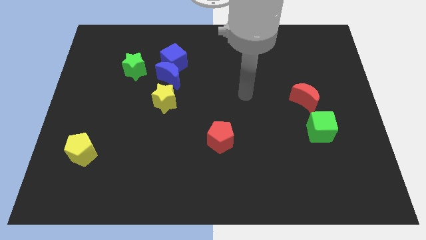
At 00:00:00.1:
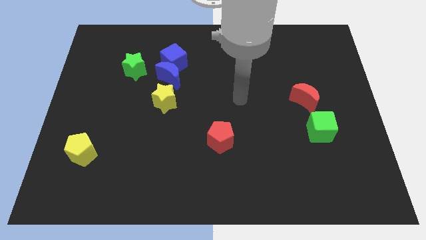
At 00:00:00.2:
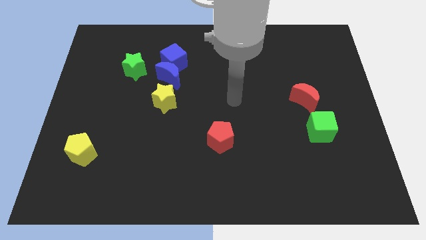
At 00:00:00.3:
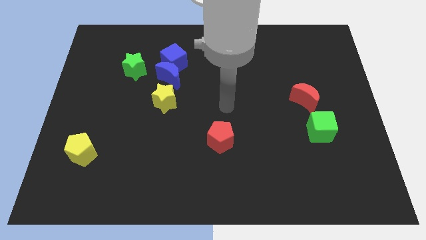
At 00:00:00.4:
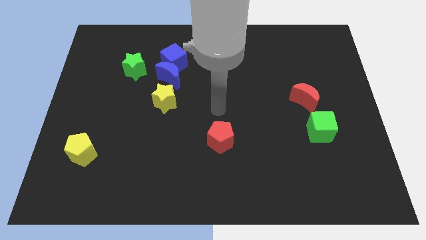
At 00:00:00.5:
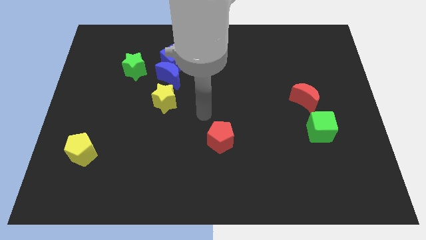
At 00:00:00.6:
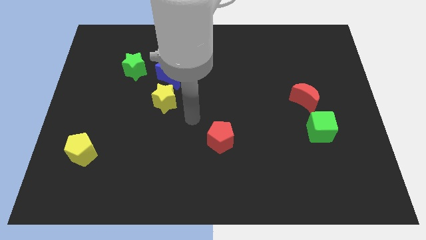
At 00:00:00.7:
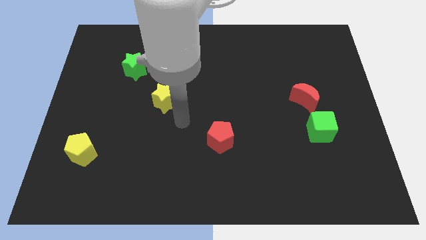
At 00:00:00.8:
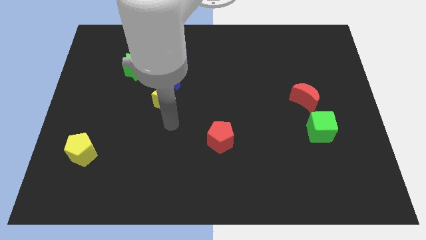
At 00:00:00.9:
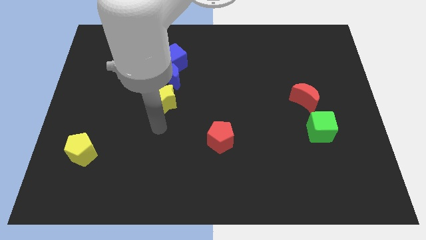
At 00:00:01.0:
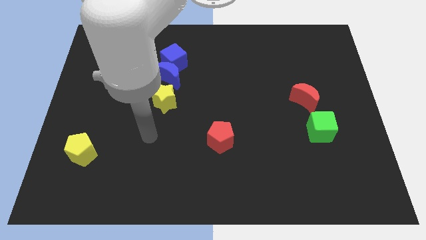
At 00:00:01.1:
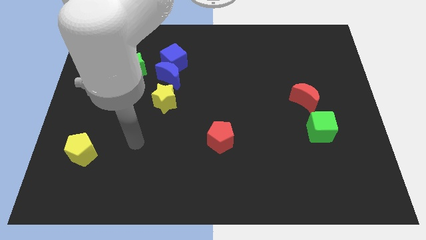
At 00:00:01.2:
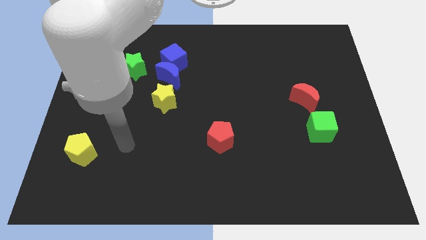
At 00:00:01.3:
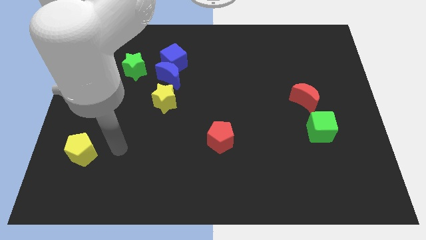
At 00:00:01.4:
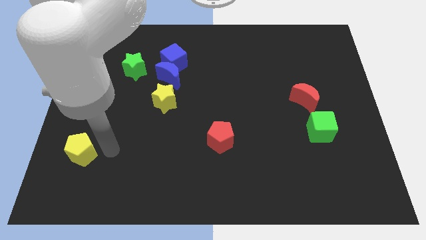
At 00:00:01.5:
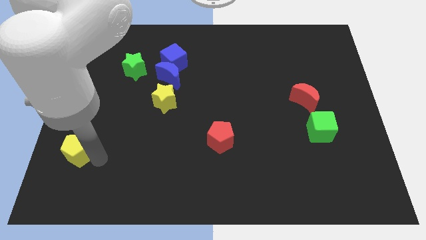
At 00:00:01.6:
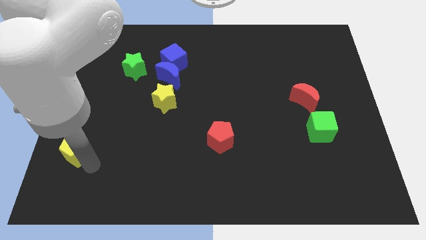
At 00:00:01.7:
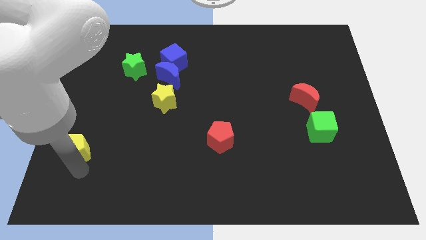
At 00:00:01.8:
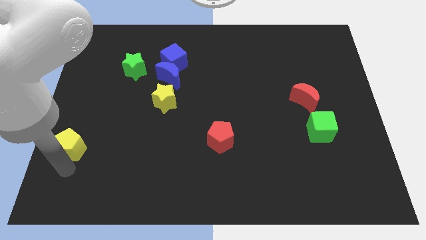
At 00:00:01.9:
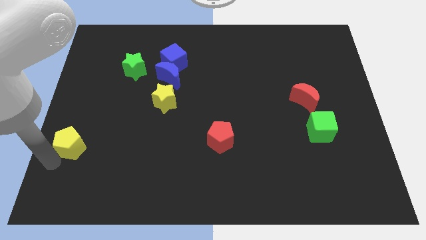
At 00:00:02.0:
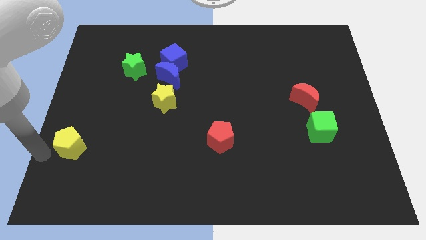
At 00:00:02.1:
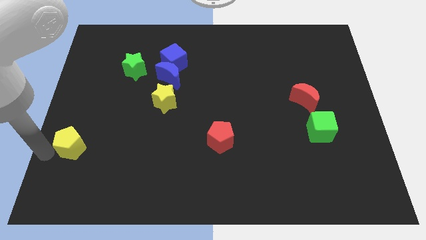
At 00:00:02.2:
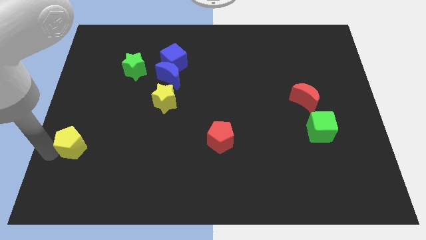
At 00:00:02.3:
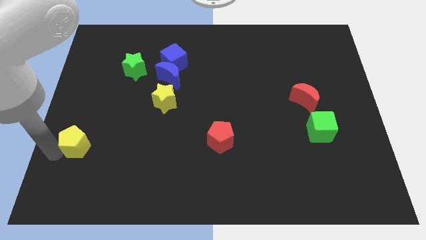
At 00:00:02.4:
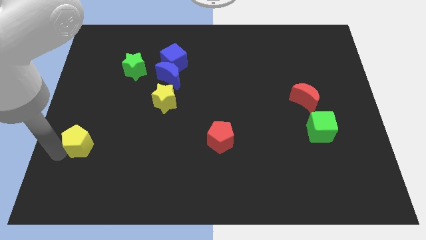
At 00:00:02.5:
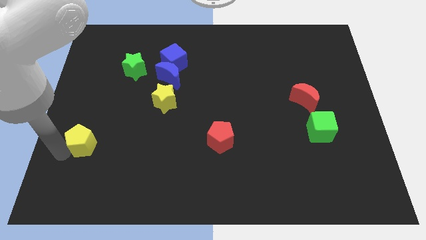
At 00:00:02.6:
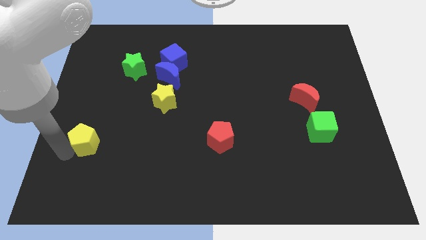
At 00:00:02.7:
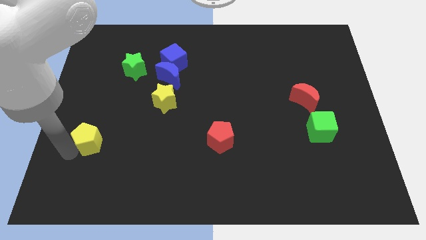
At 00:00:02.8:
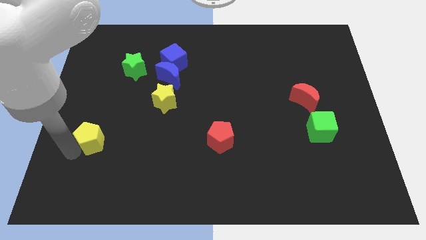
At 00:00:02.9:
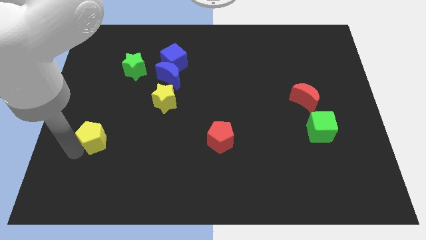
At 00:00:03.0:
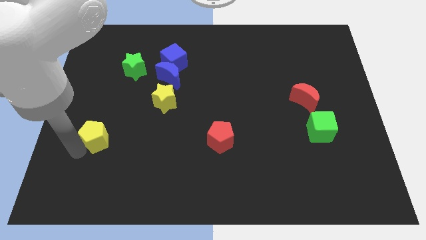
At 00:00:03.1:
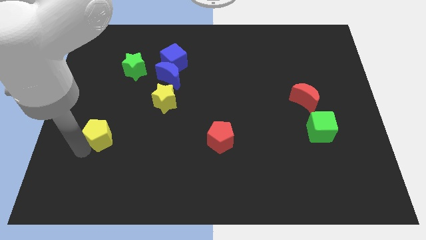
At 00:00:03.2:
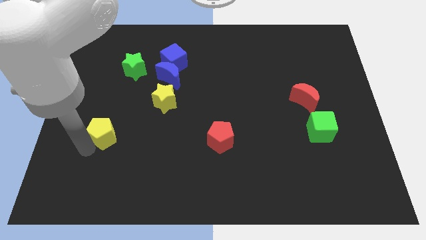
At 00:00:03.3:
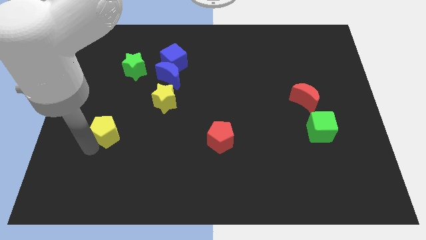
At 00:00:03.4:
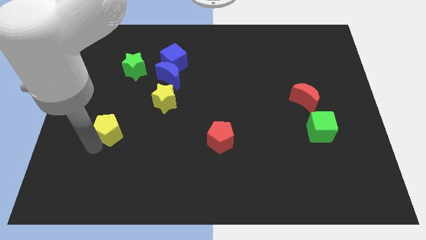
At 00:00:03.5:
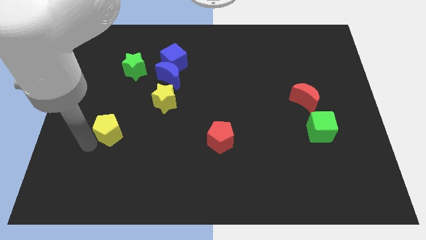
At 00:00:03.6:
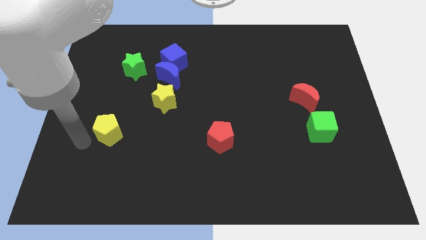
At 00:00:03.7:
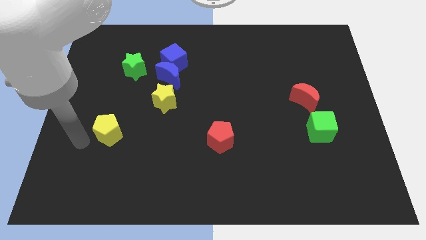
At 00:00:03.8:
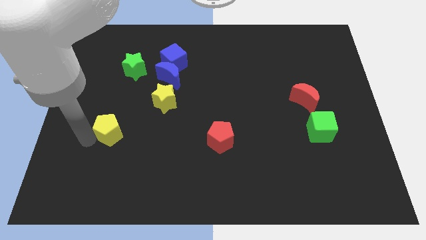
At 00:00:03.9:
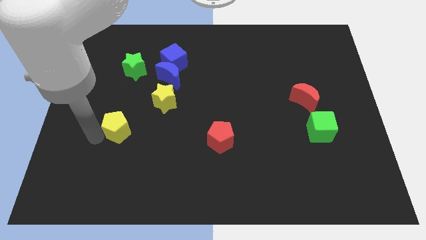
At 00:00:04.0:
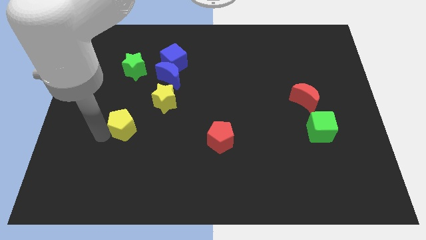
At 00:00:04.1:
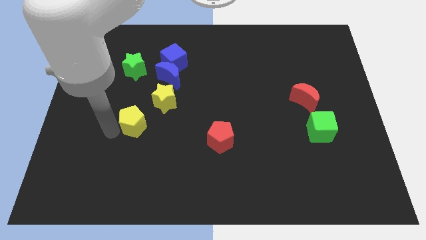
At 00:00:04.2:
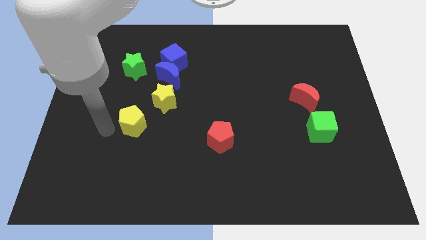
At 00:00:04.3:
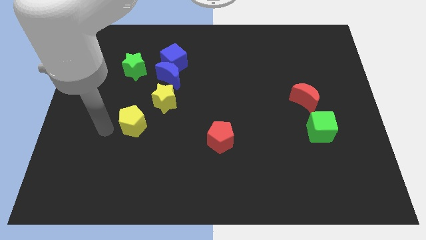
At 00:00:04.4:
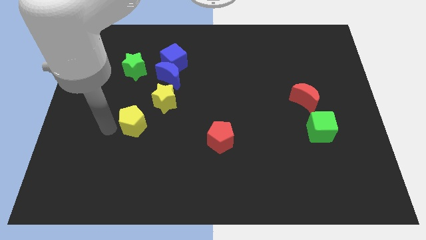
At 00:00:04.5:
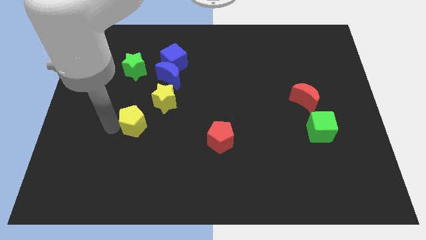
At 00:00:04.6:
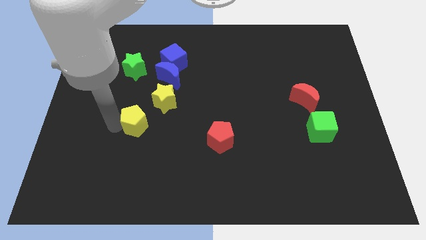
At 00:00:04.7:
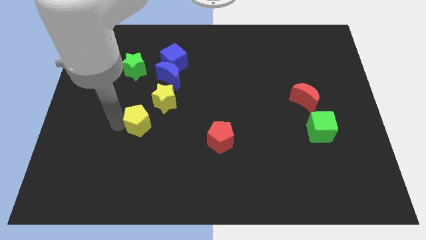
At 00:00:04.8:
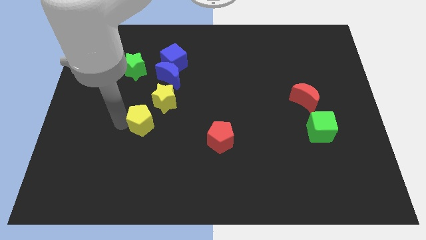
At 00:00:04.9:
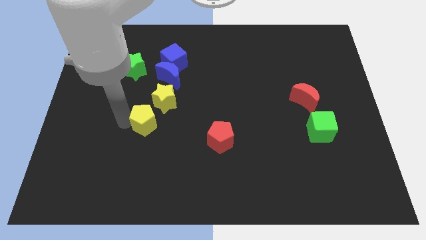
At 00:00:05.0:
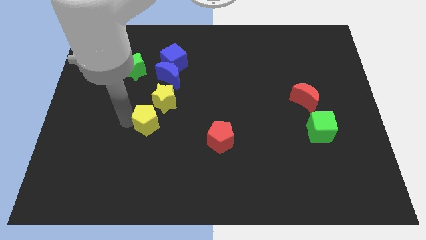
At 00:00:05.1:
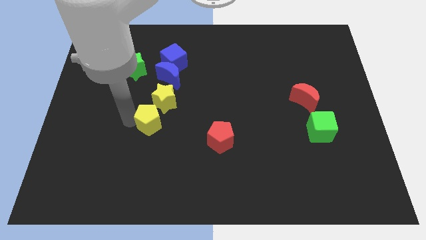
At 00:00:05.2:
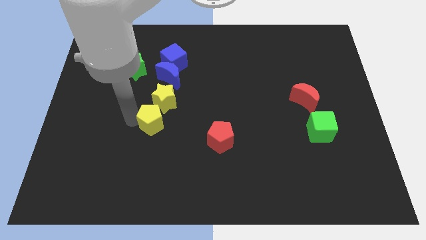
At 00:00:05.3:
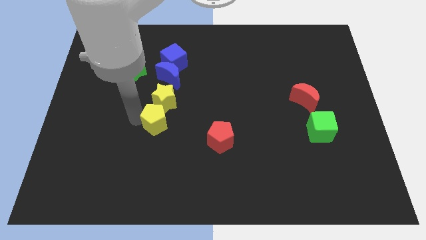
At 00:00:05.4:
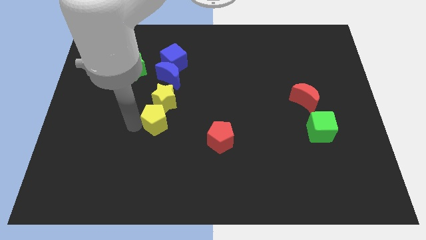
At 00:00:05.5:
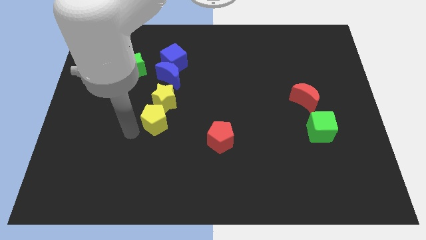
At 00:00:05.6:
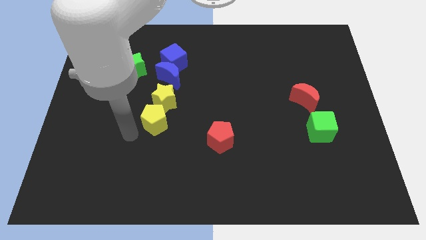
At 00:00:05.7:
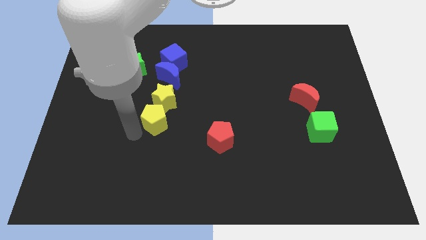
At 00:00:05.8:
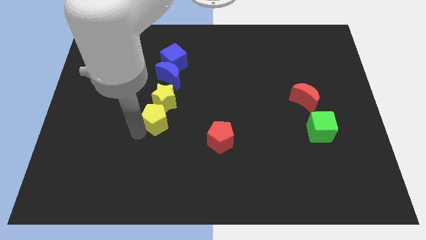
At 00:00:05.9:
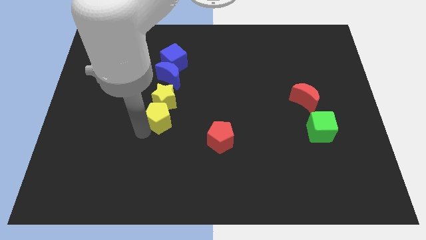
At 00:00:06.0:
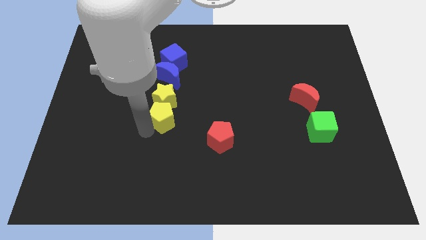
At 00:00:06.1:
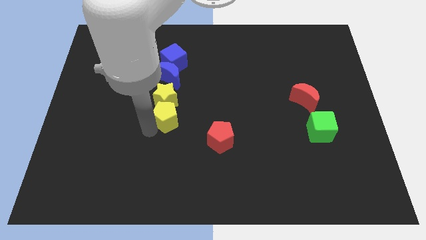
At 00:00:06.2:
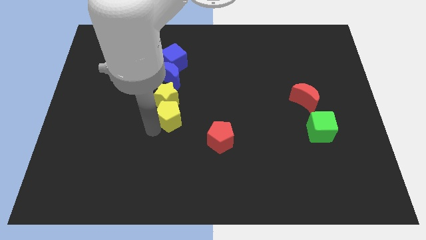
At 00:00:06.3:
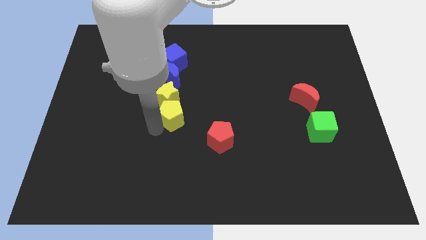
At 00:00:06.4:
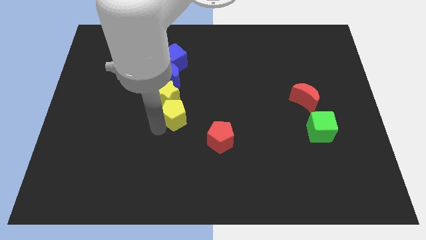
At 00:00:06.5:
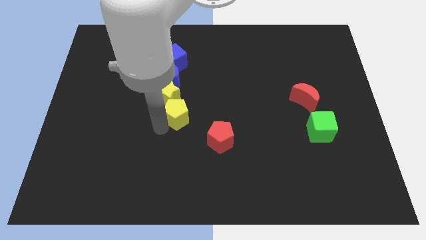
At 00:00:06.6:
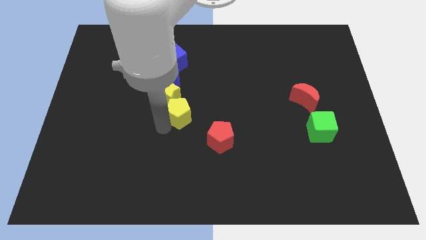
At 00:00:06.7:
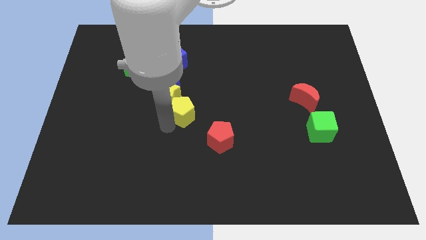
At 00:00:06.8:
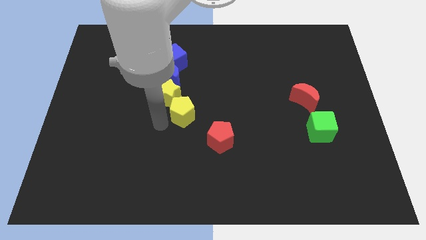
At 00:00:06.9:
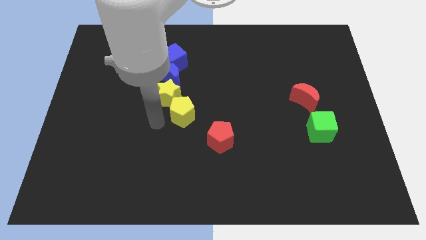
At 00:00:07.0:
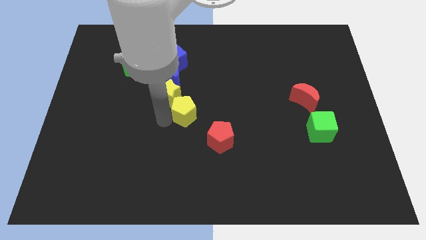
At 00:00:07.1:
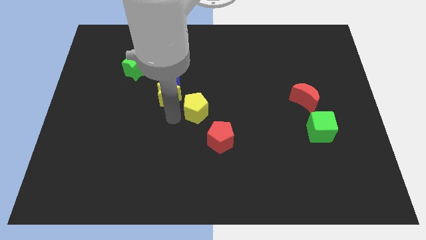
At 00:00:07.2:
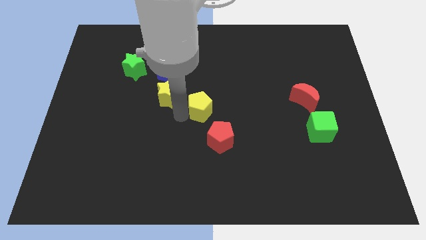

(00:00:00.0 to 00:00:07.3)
push the yellow pentagon to the top of the red pentagon
